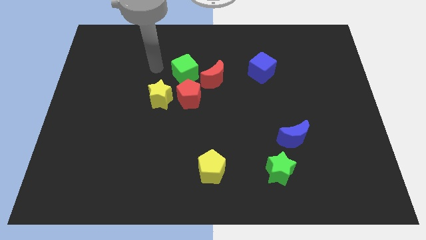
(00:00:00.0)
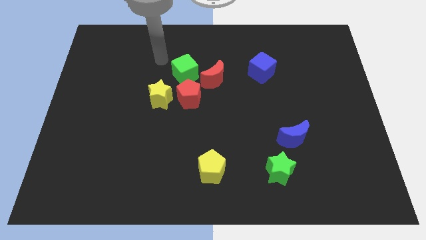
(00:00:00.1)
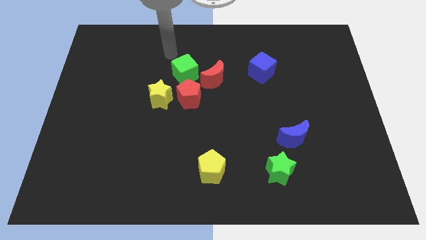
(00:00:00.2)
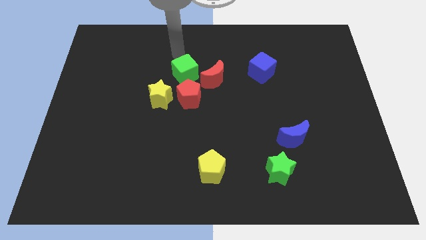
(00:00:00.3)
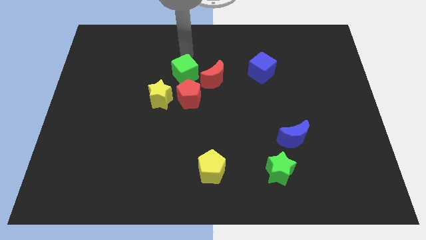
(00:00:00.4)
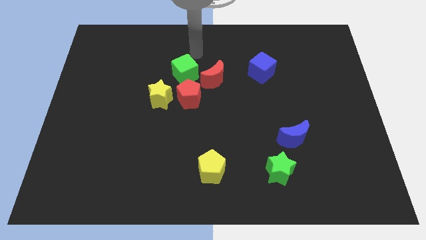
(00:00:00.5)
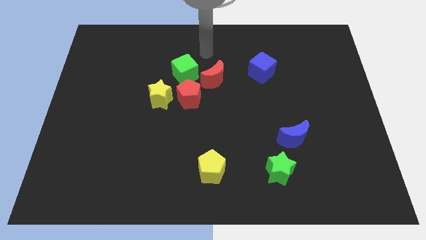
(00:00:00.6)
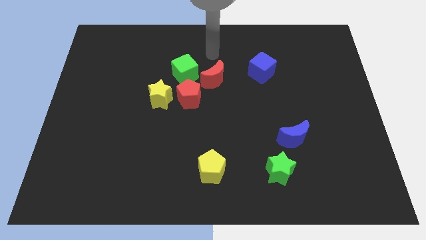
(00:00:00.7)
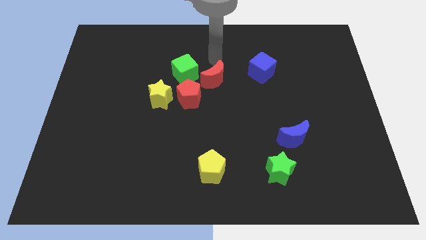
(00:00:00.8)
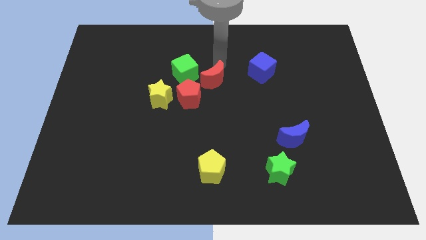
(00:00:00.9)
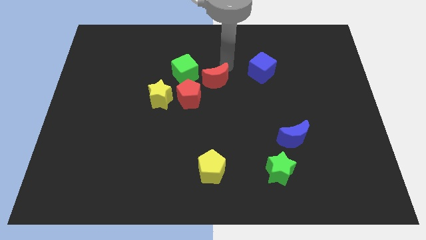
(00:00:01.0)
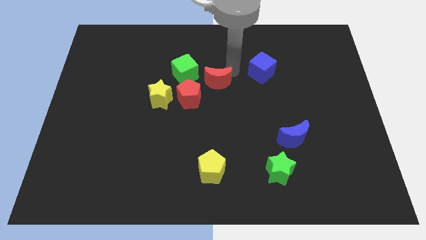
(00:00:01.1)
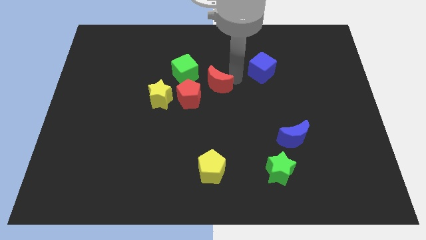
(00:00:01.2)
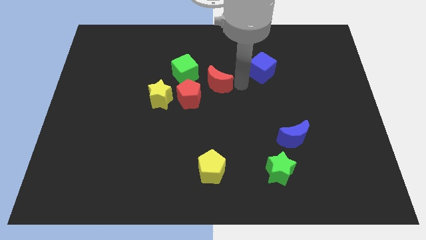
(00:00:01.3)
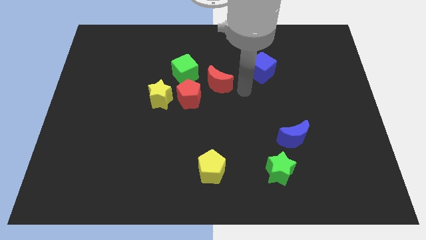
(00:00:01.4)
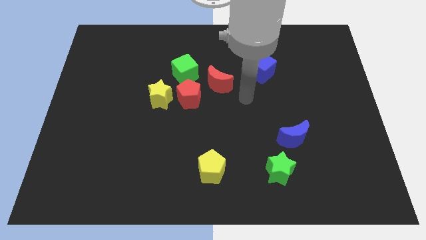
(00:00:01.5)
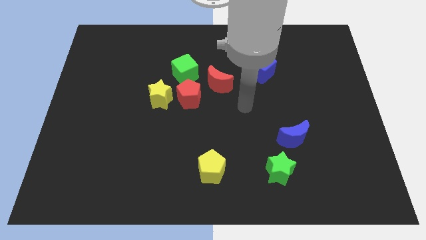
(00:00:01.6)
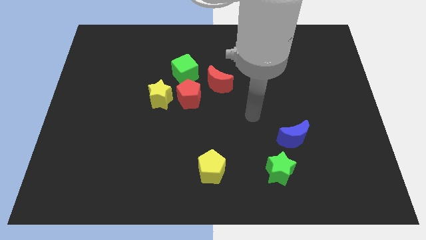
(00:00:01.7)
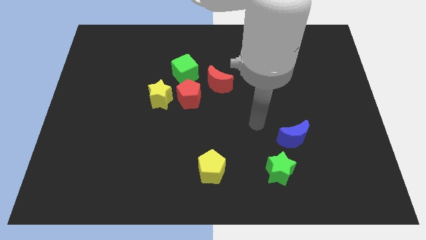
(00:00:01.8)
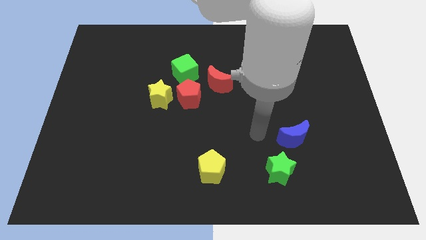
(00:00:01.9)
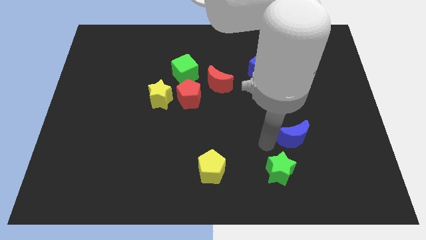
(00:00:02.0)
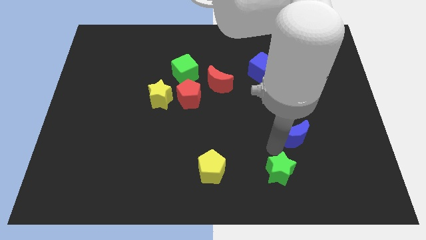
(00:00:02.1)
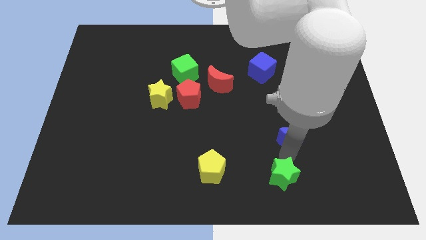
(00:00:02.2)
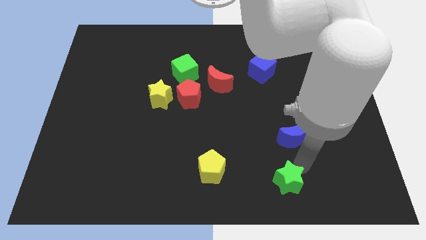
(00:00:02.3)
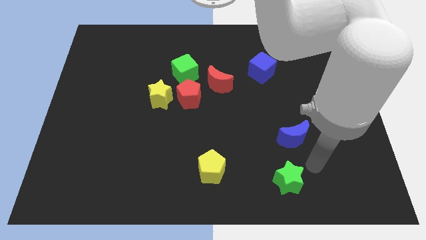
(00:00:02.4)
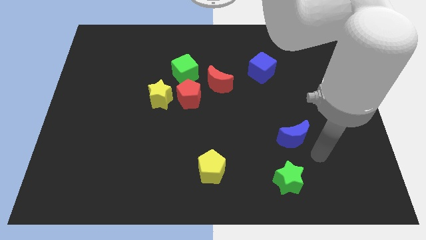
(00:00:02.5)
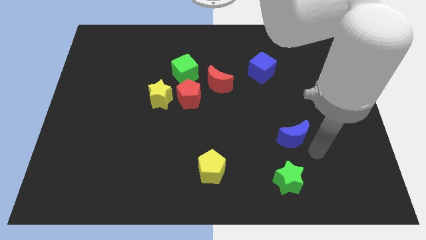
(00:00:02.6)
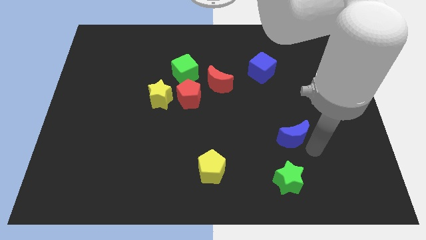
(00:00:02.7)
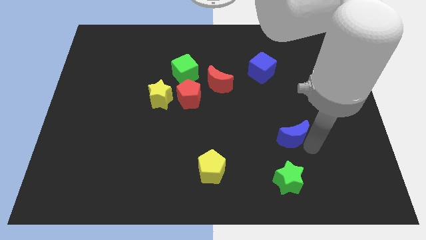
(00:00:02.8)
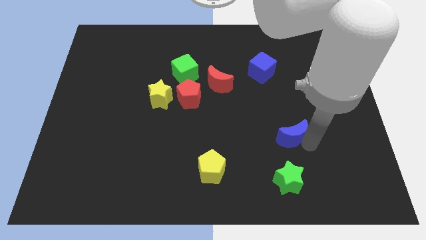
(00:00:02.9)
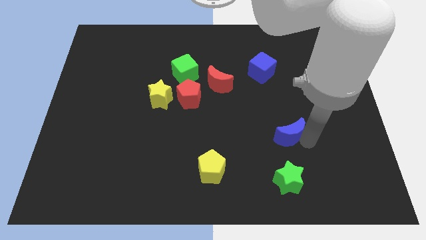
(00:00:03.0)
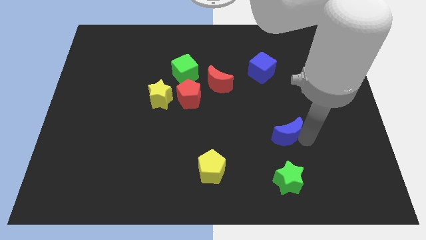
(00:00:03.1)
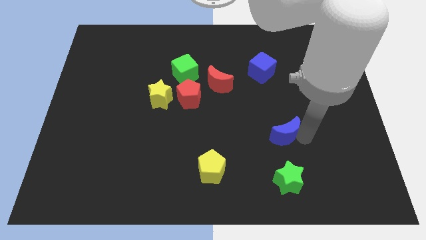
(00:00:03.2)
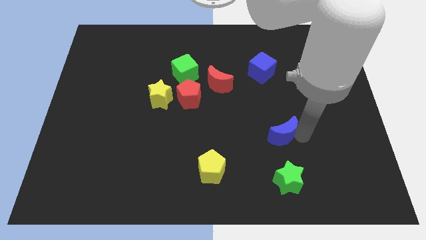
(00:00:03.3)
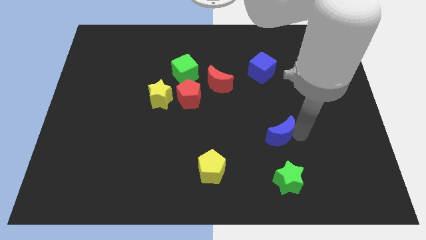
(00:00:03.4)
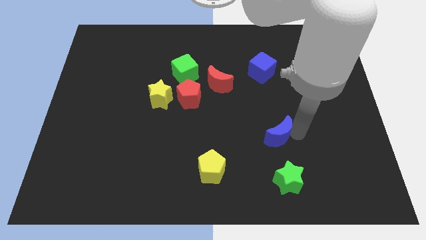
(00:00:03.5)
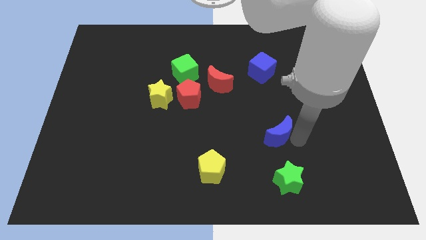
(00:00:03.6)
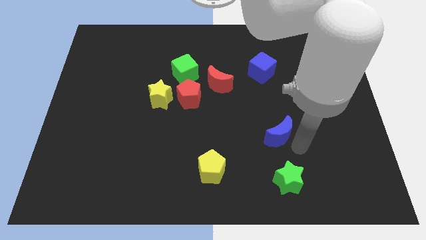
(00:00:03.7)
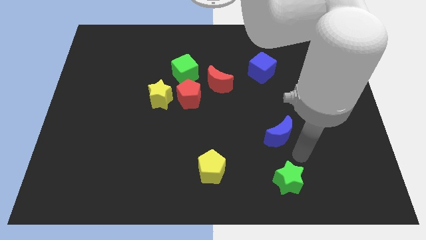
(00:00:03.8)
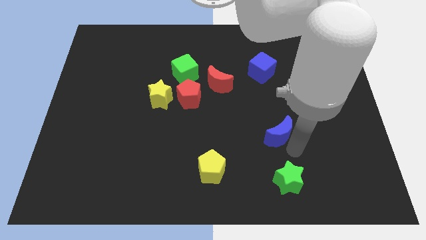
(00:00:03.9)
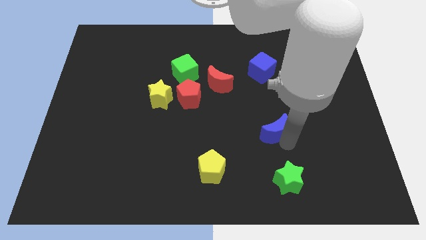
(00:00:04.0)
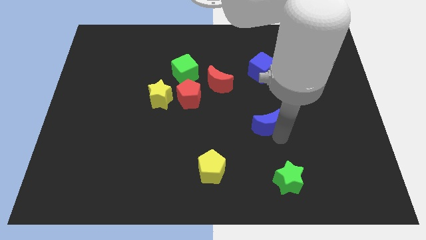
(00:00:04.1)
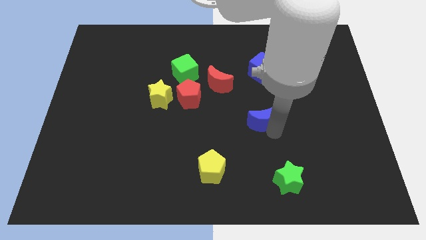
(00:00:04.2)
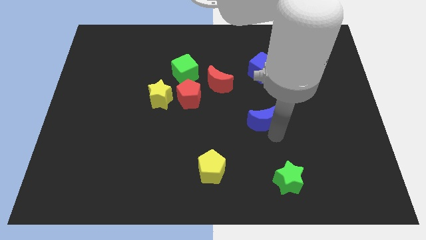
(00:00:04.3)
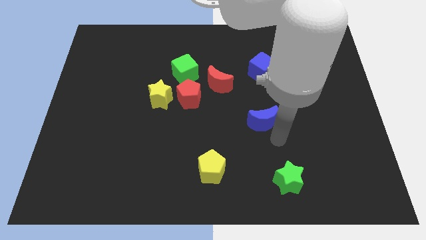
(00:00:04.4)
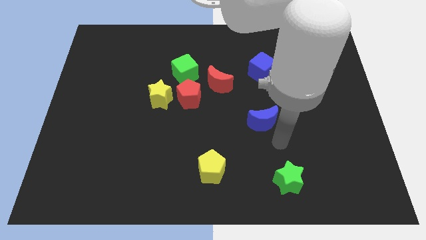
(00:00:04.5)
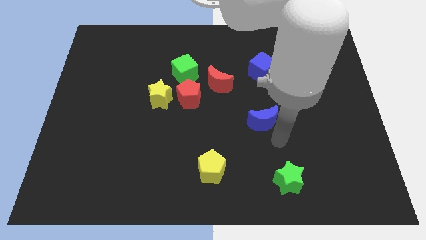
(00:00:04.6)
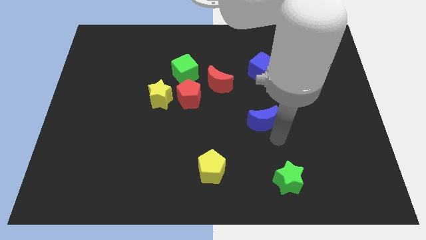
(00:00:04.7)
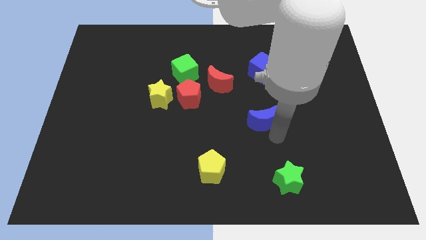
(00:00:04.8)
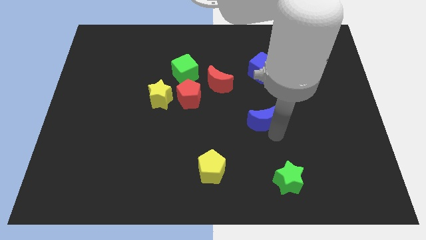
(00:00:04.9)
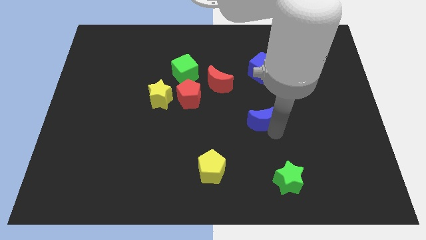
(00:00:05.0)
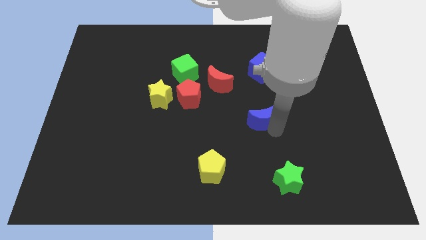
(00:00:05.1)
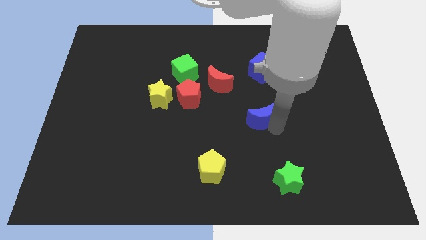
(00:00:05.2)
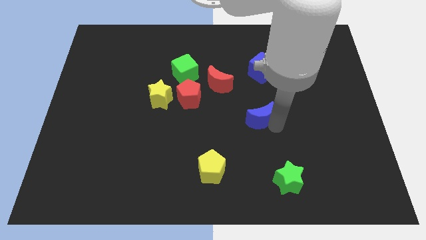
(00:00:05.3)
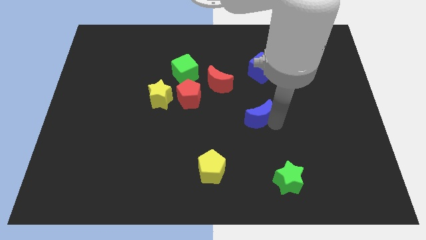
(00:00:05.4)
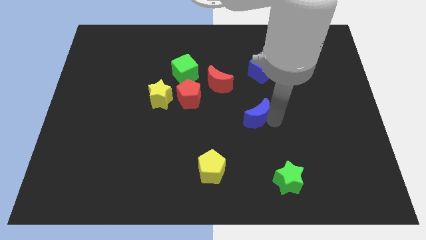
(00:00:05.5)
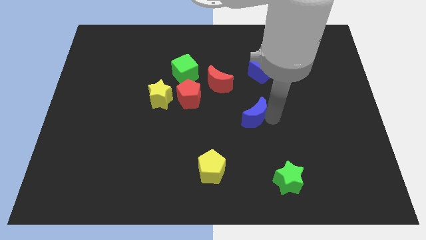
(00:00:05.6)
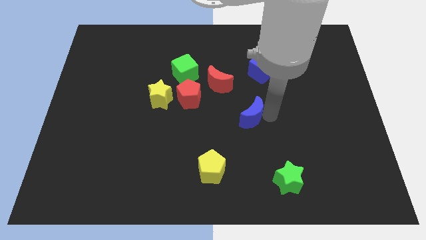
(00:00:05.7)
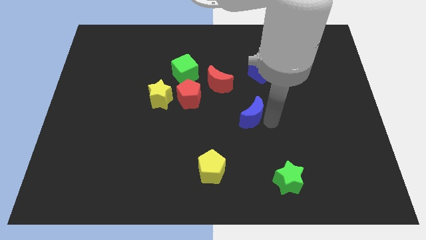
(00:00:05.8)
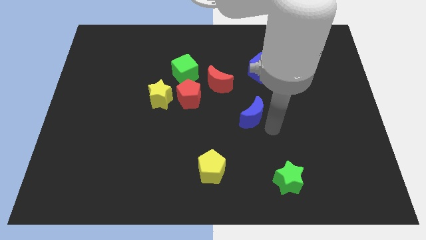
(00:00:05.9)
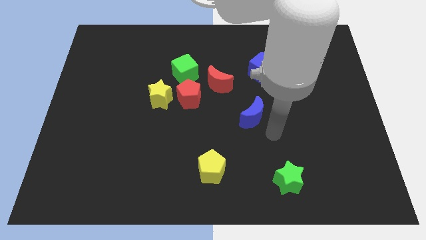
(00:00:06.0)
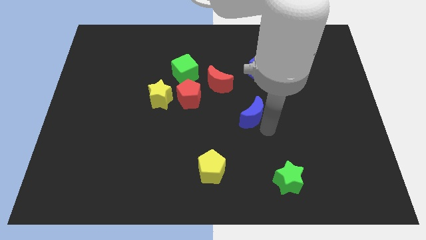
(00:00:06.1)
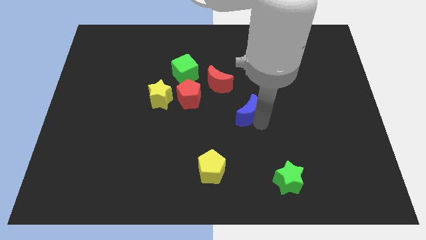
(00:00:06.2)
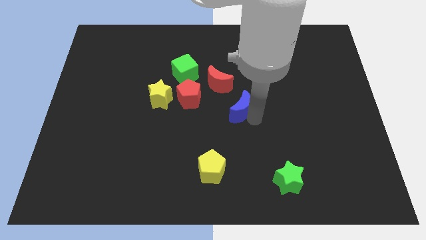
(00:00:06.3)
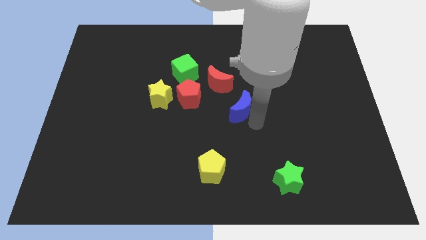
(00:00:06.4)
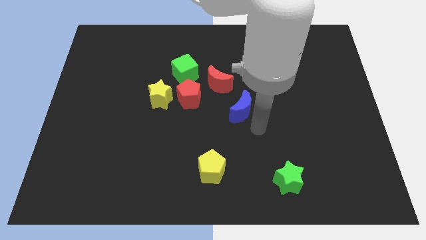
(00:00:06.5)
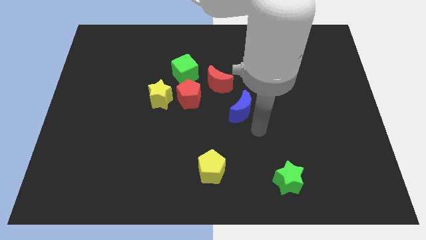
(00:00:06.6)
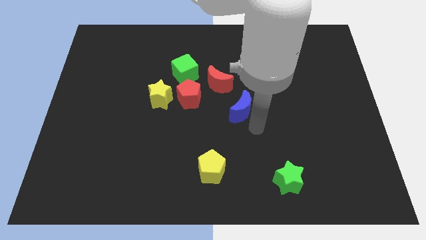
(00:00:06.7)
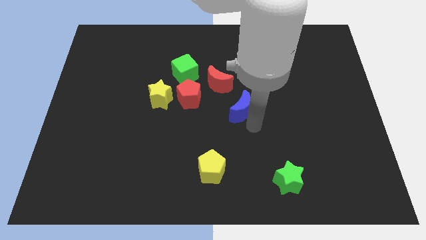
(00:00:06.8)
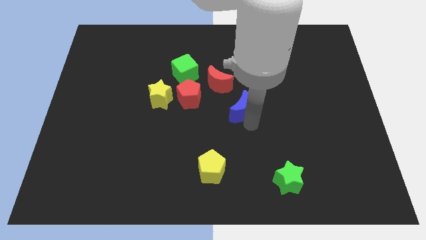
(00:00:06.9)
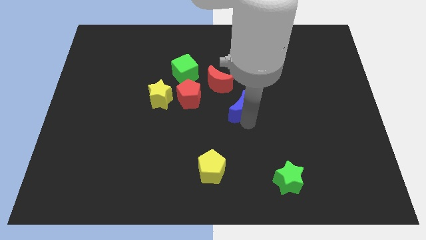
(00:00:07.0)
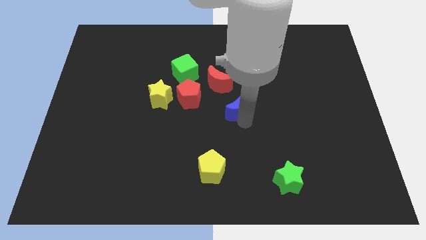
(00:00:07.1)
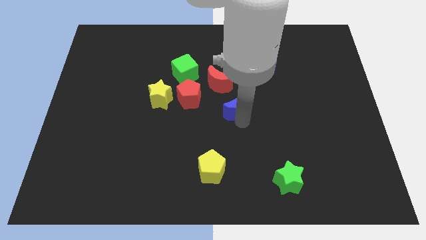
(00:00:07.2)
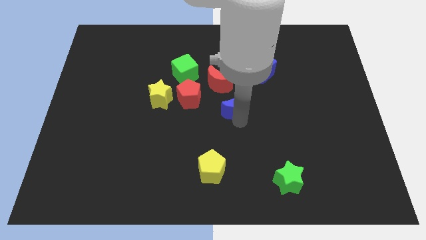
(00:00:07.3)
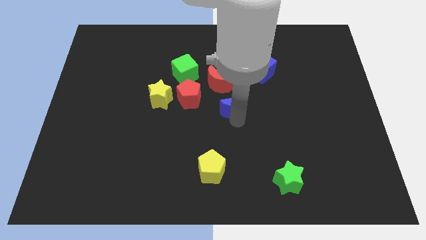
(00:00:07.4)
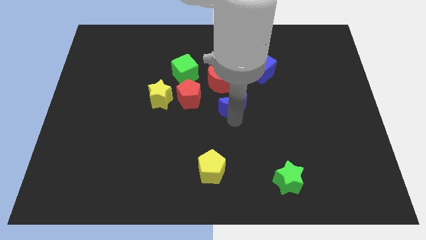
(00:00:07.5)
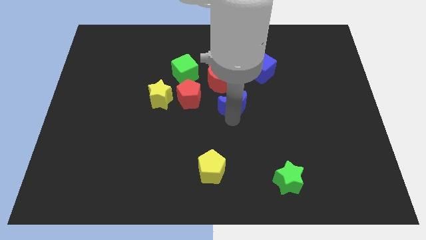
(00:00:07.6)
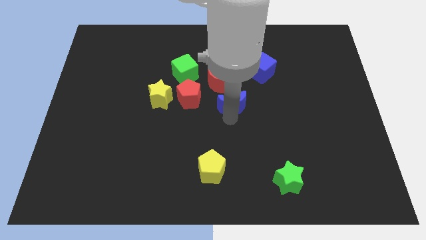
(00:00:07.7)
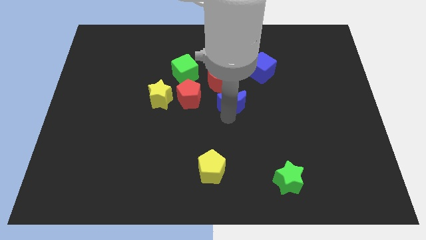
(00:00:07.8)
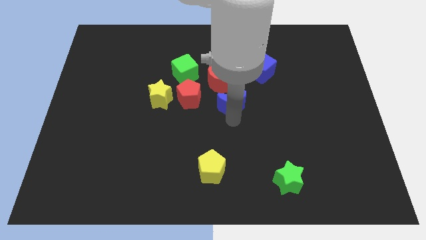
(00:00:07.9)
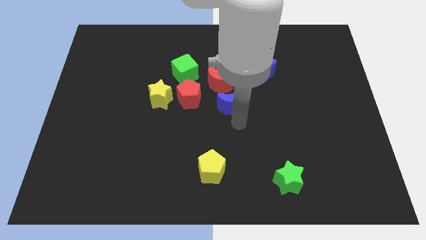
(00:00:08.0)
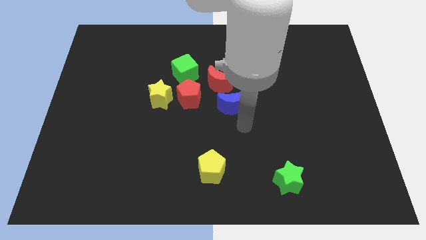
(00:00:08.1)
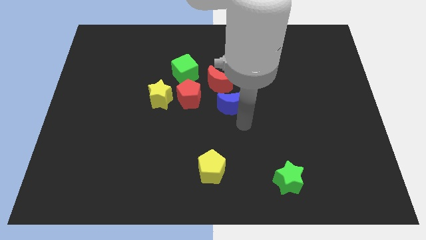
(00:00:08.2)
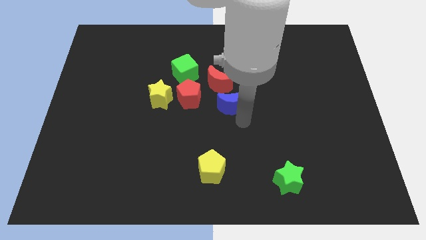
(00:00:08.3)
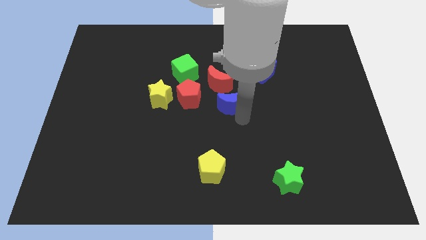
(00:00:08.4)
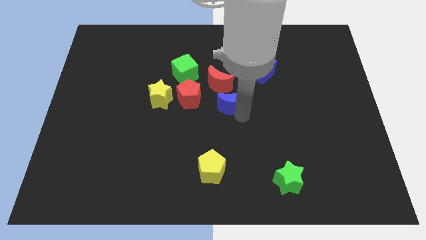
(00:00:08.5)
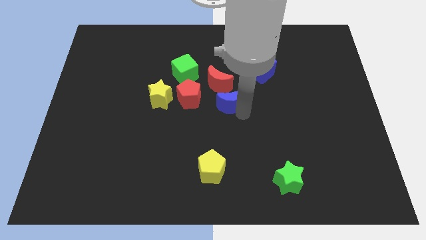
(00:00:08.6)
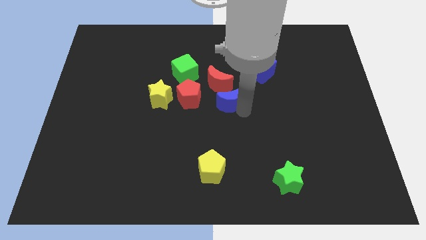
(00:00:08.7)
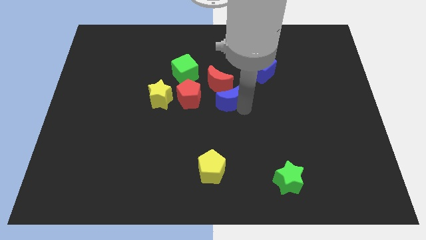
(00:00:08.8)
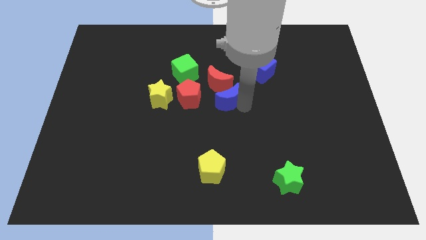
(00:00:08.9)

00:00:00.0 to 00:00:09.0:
slide the blue moon close to the red moon
